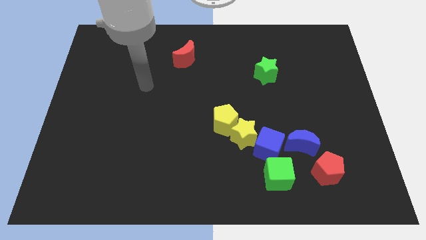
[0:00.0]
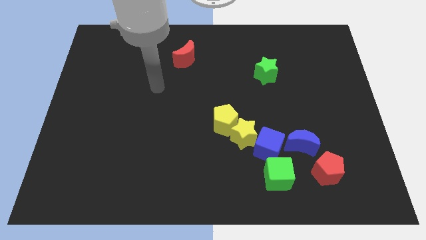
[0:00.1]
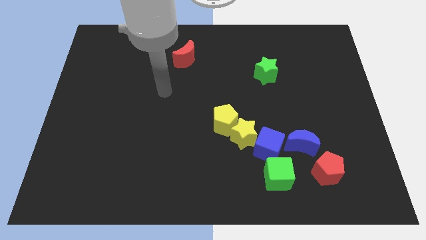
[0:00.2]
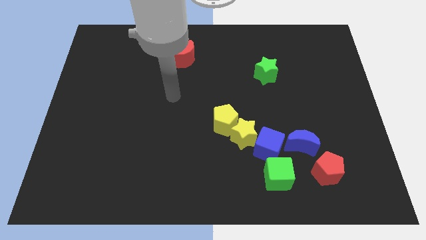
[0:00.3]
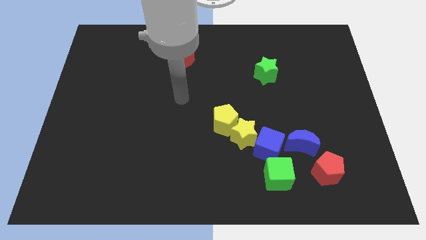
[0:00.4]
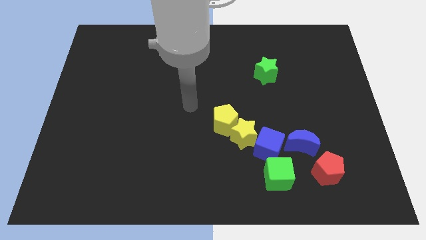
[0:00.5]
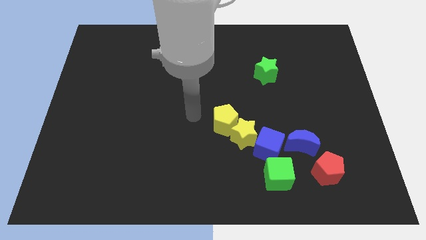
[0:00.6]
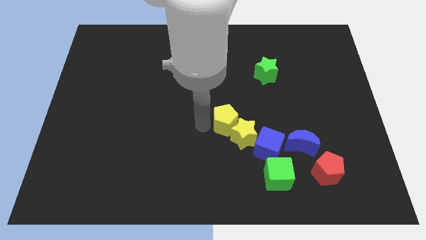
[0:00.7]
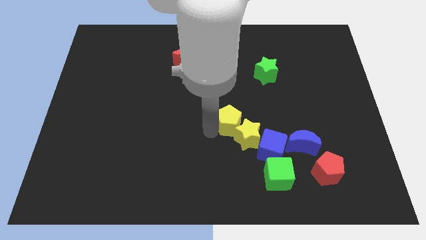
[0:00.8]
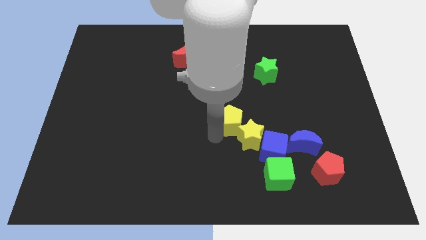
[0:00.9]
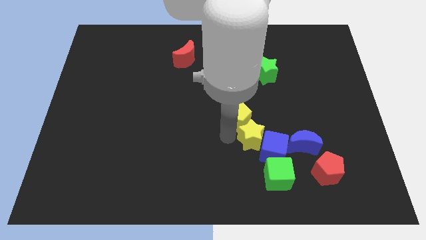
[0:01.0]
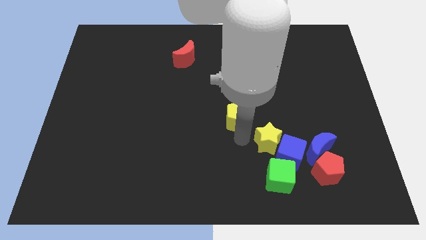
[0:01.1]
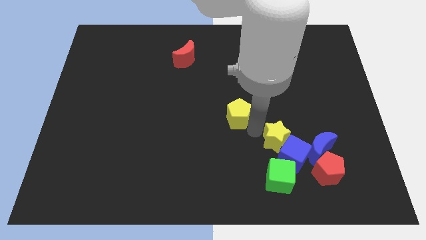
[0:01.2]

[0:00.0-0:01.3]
separate the yellow pentagon from the yellow star

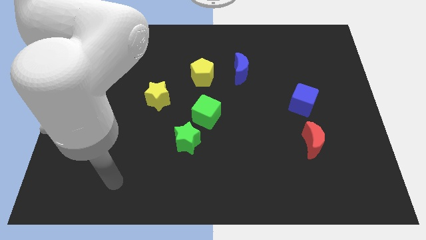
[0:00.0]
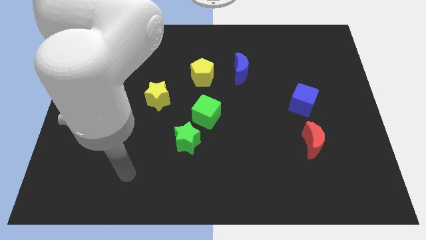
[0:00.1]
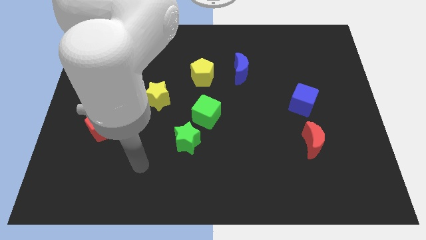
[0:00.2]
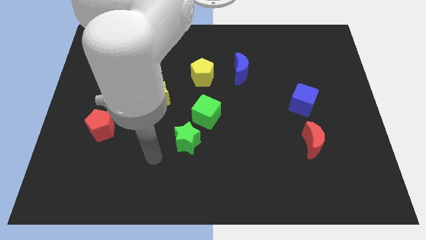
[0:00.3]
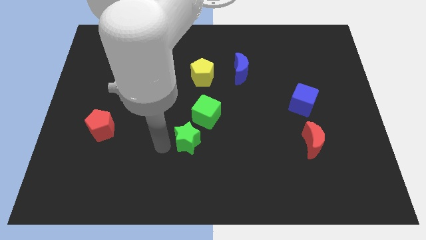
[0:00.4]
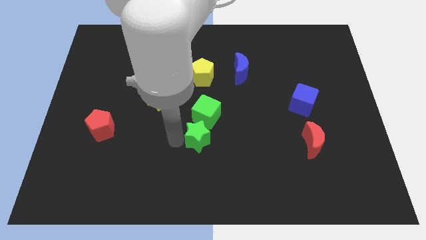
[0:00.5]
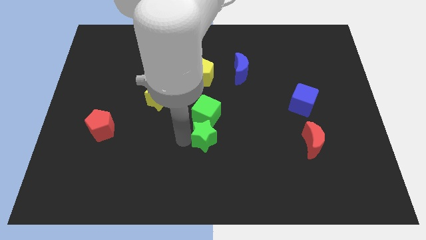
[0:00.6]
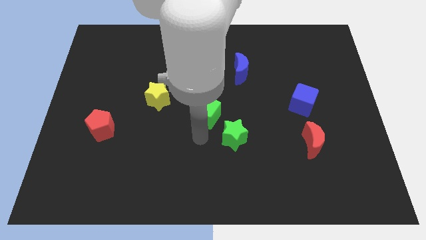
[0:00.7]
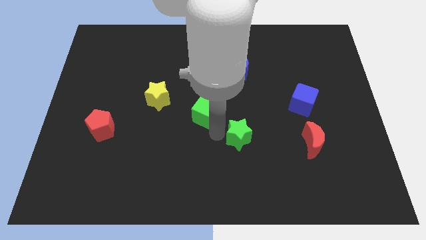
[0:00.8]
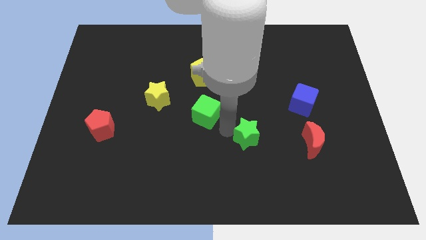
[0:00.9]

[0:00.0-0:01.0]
move the green cube away from the green star

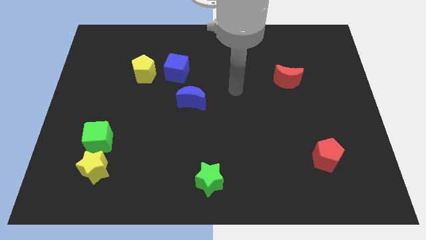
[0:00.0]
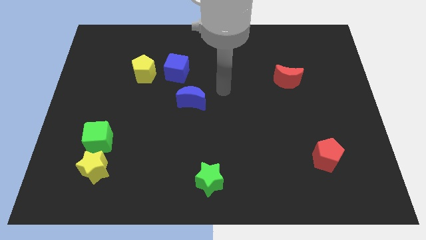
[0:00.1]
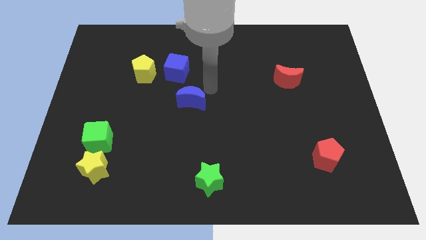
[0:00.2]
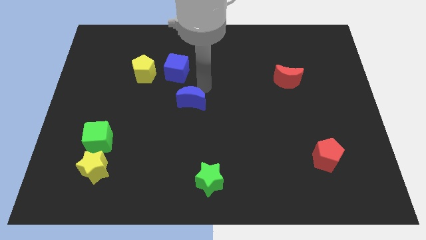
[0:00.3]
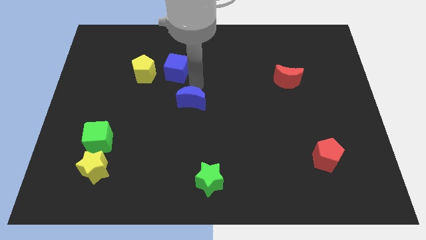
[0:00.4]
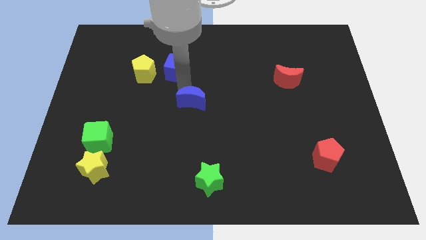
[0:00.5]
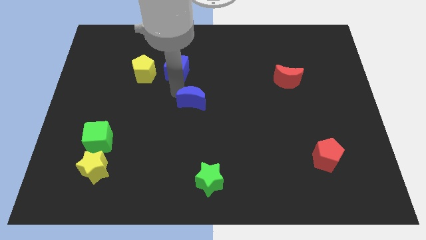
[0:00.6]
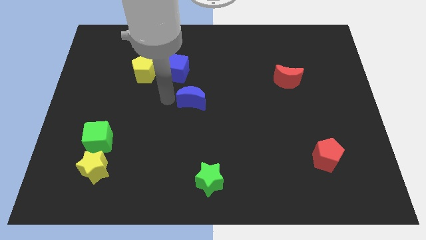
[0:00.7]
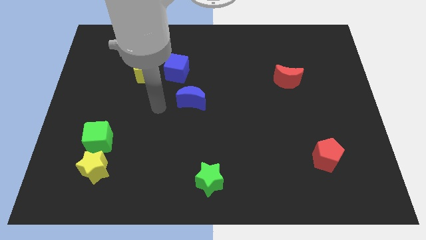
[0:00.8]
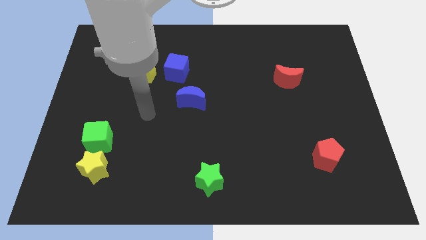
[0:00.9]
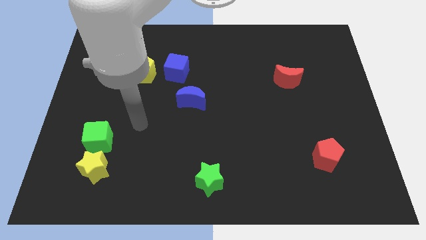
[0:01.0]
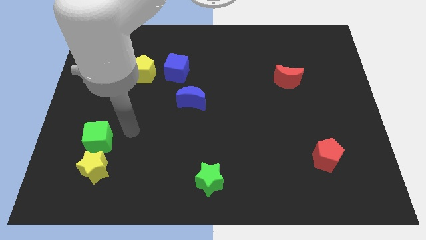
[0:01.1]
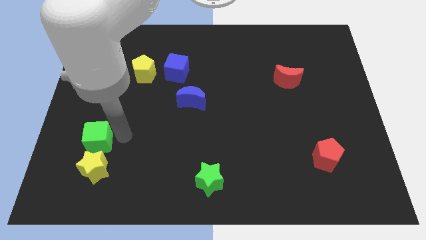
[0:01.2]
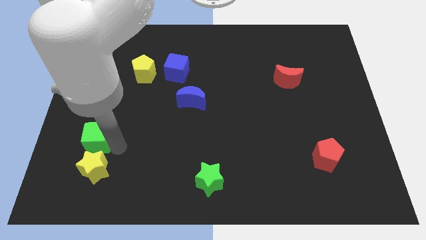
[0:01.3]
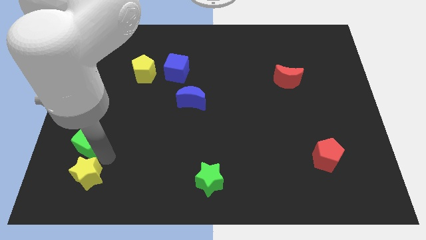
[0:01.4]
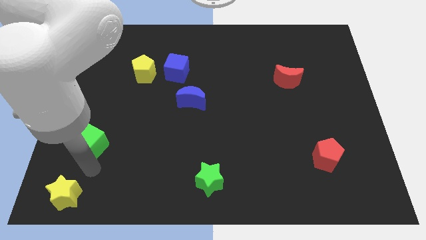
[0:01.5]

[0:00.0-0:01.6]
move the green cube away from the yellow star

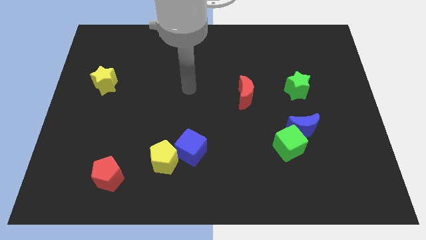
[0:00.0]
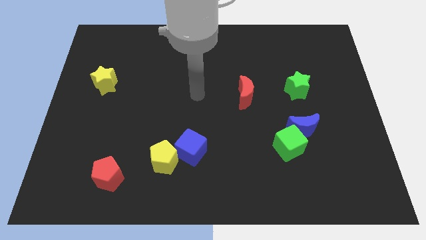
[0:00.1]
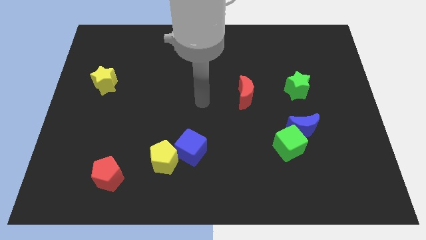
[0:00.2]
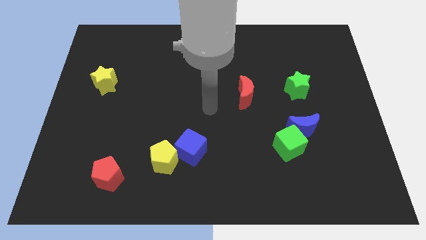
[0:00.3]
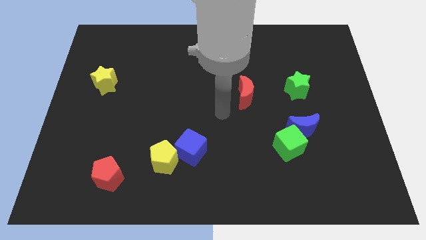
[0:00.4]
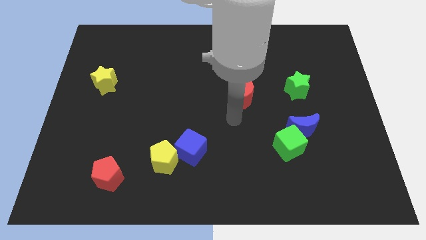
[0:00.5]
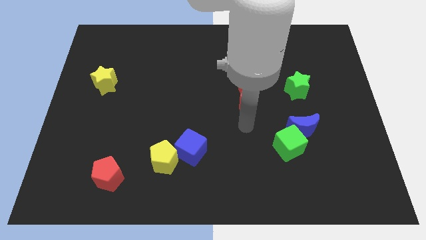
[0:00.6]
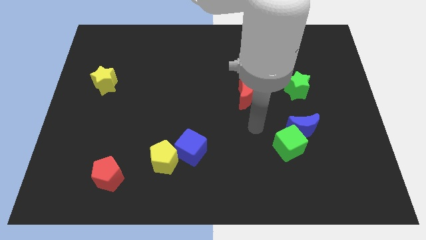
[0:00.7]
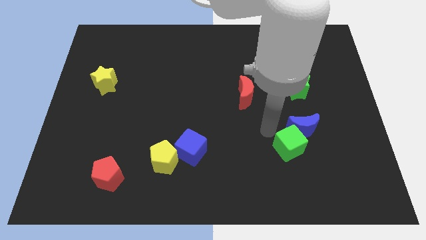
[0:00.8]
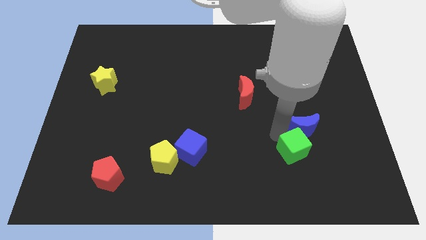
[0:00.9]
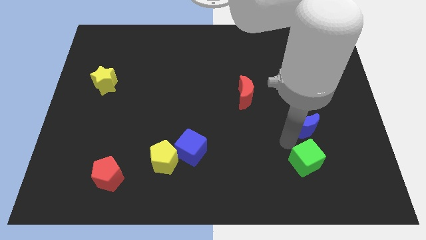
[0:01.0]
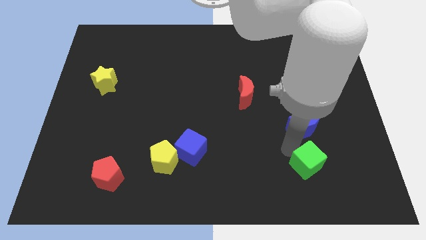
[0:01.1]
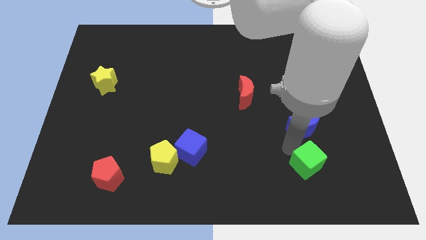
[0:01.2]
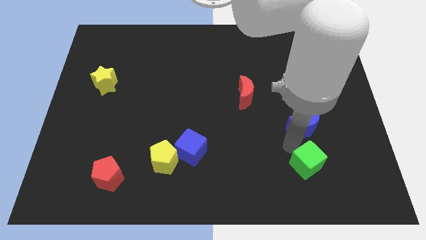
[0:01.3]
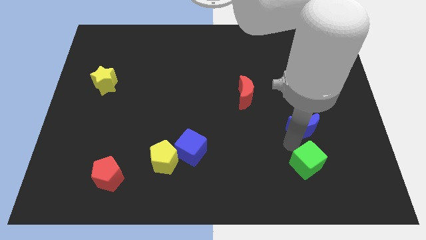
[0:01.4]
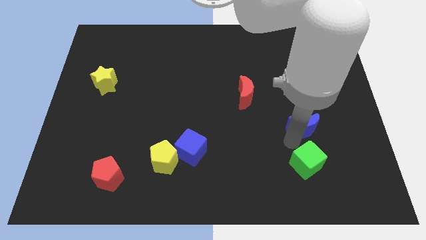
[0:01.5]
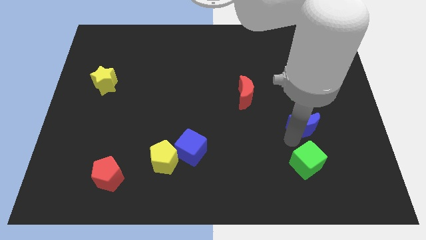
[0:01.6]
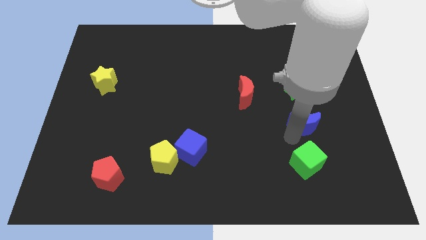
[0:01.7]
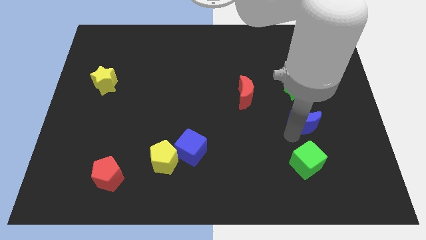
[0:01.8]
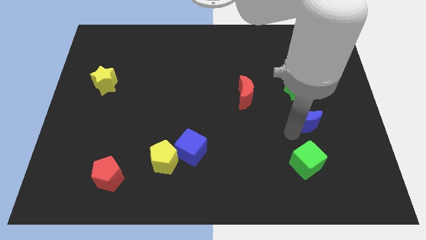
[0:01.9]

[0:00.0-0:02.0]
separate the blue moon from the green cube

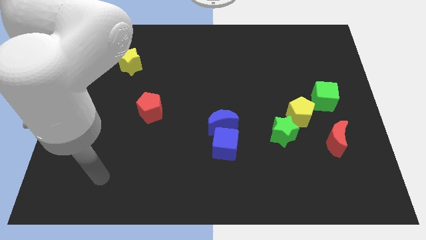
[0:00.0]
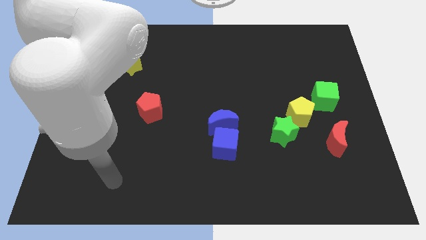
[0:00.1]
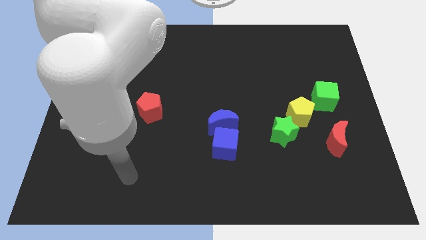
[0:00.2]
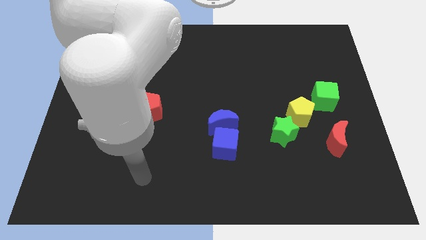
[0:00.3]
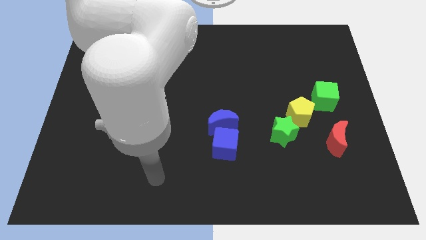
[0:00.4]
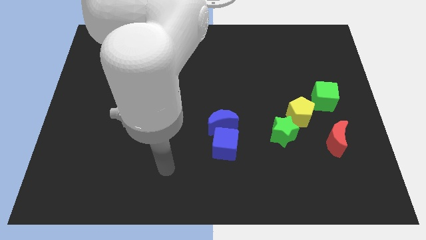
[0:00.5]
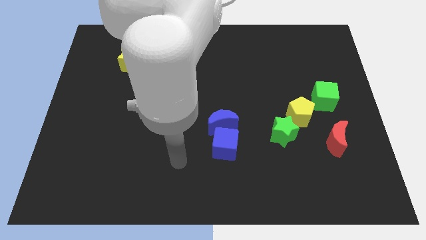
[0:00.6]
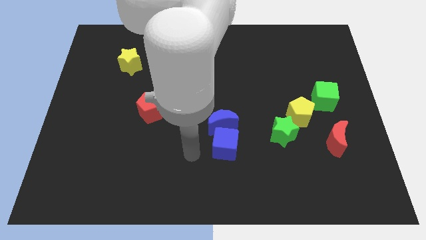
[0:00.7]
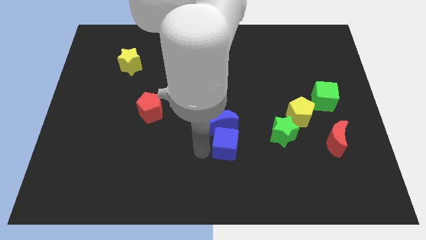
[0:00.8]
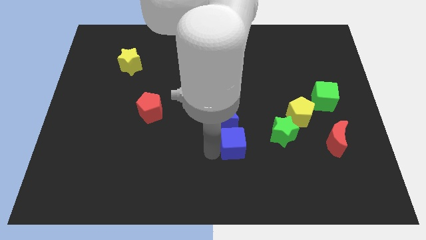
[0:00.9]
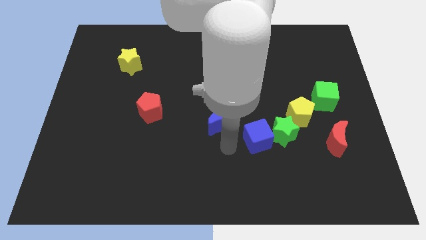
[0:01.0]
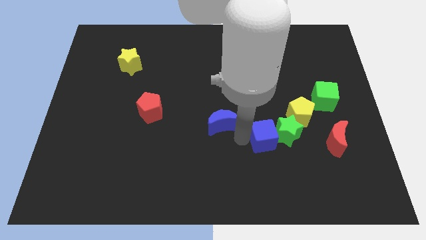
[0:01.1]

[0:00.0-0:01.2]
move the blue moon away from the blue cube

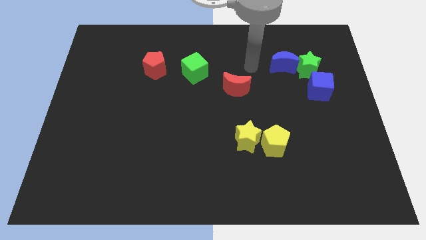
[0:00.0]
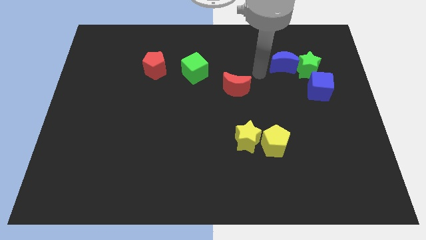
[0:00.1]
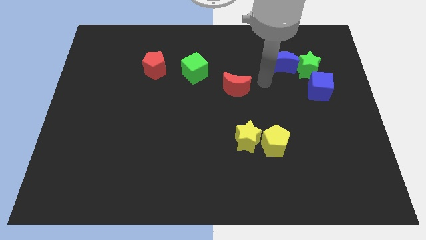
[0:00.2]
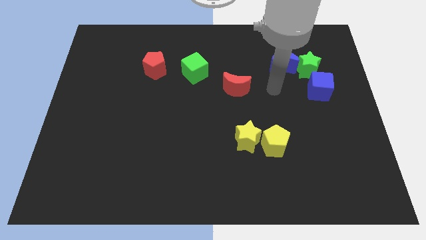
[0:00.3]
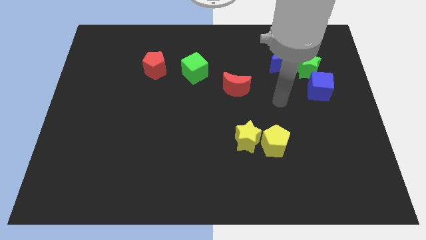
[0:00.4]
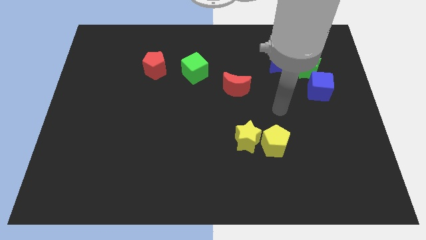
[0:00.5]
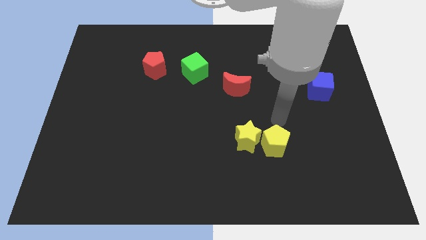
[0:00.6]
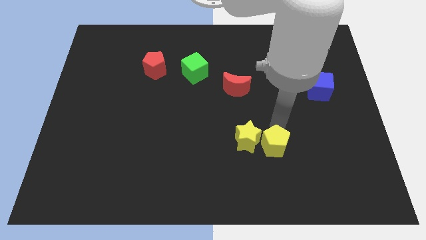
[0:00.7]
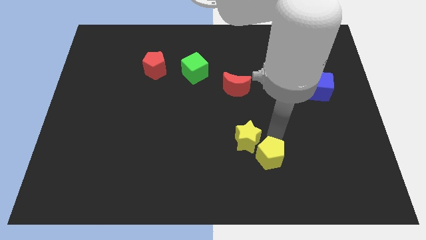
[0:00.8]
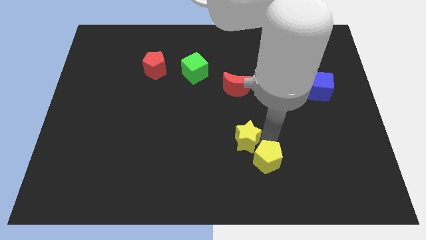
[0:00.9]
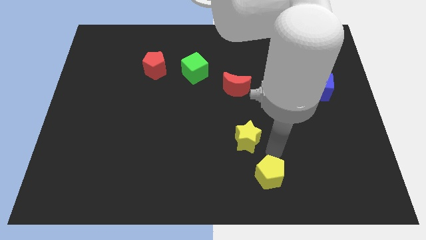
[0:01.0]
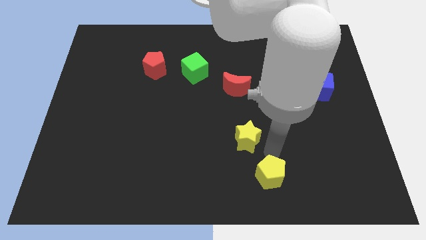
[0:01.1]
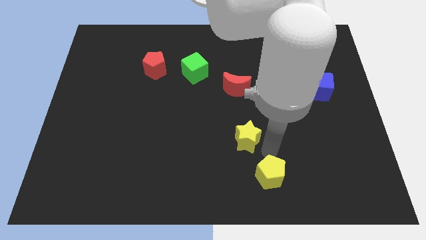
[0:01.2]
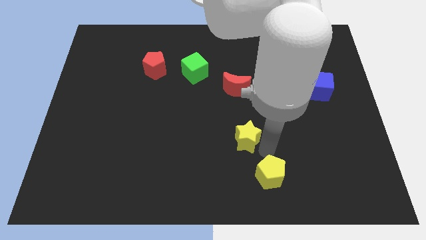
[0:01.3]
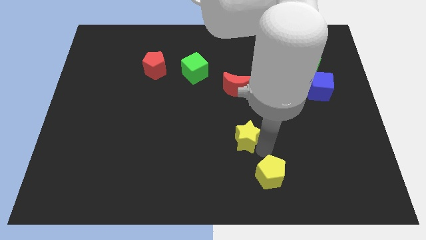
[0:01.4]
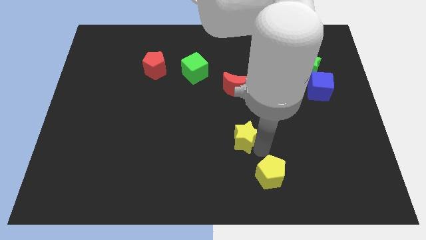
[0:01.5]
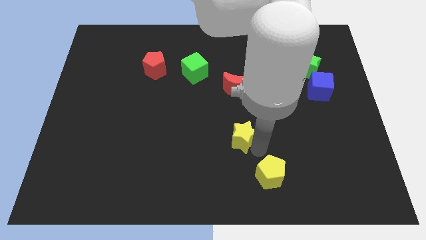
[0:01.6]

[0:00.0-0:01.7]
move the yellow star away from the yellow pentagon

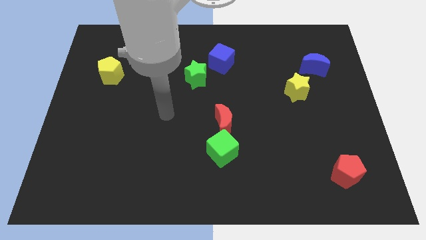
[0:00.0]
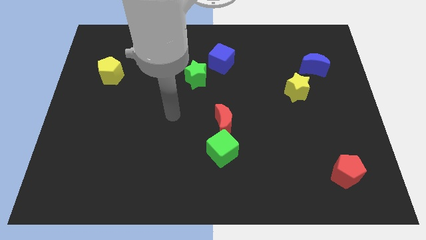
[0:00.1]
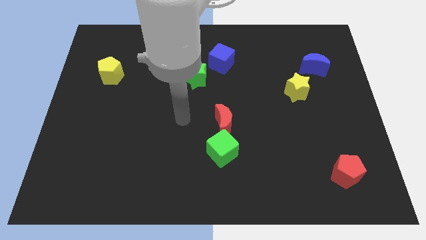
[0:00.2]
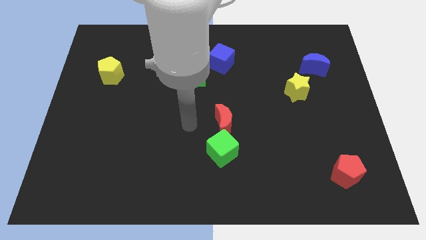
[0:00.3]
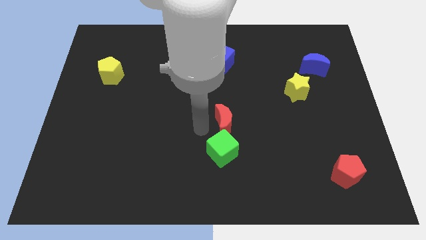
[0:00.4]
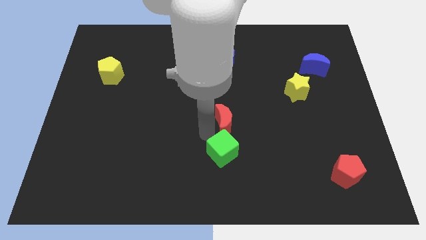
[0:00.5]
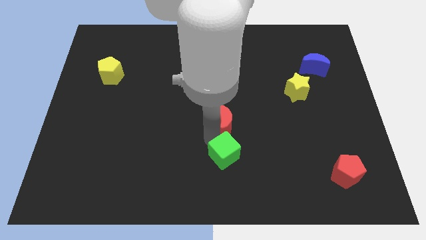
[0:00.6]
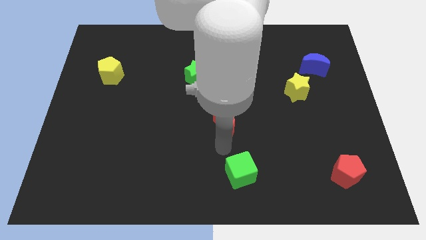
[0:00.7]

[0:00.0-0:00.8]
pull the red moon apart from the green cube
